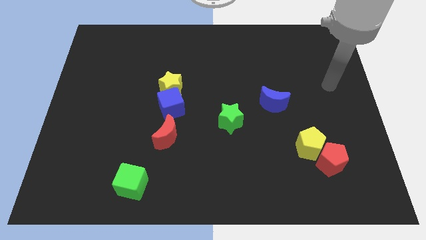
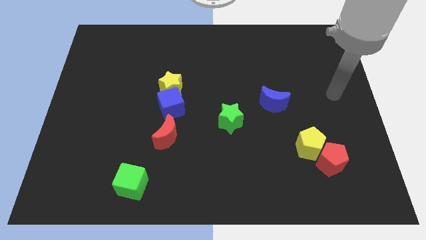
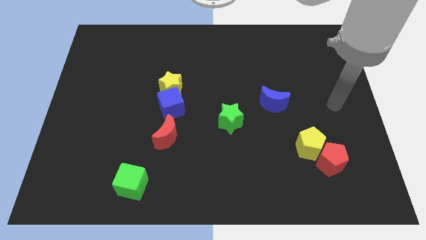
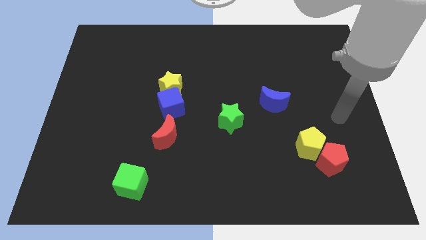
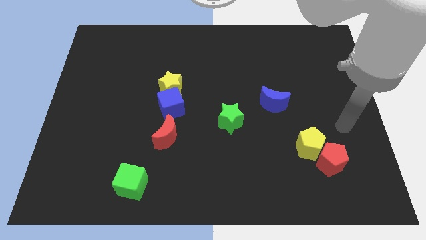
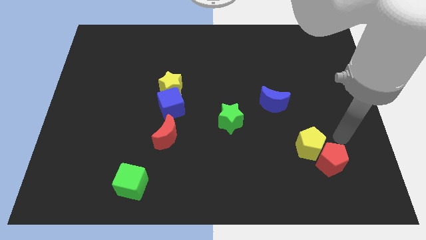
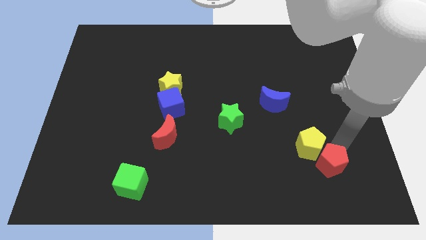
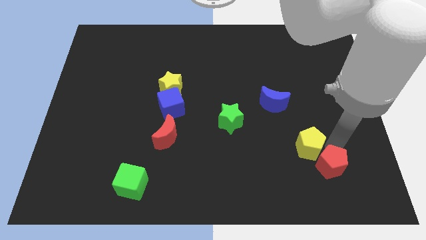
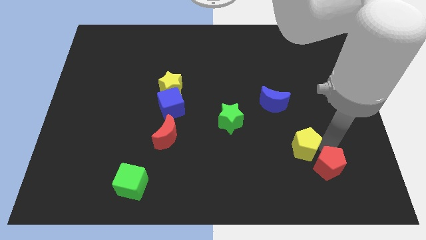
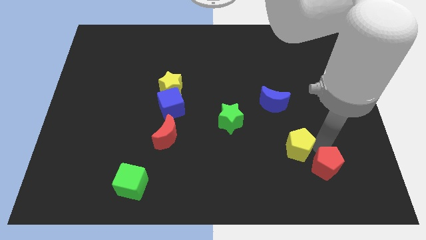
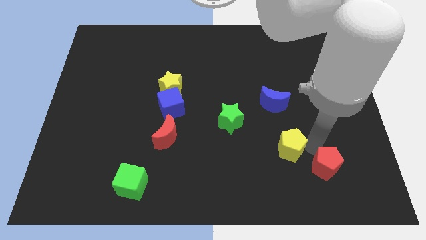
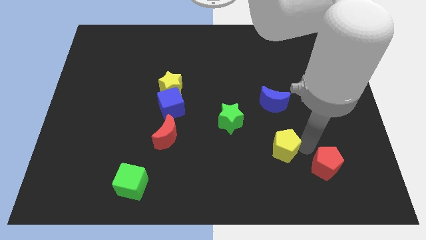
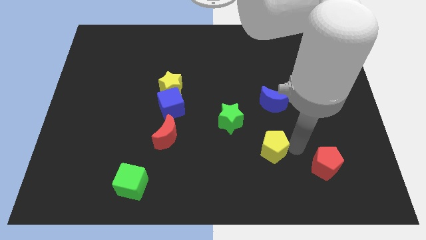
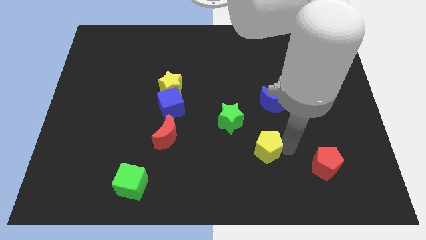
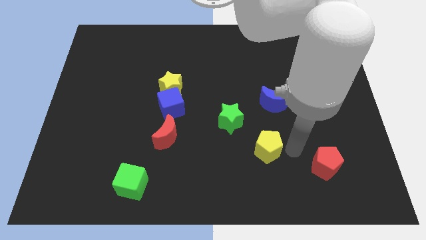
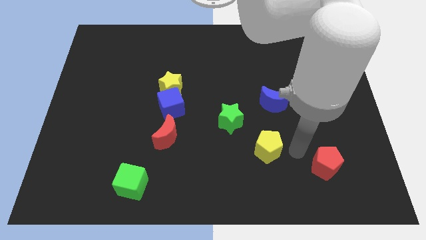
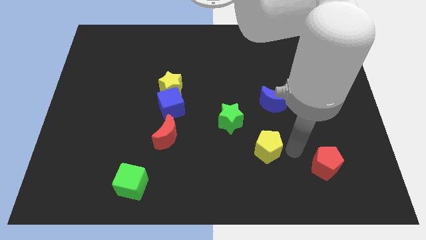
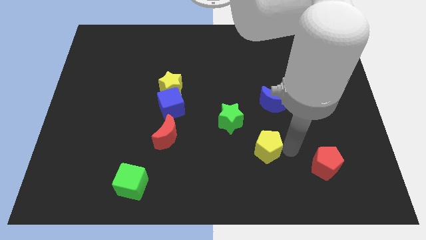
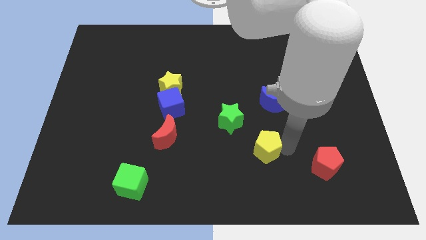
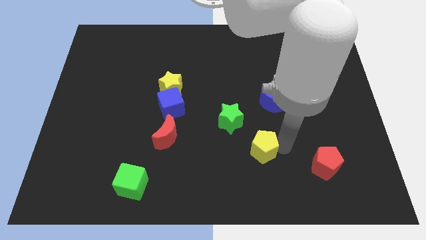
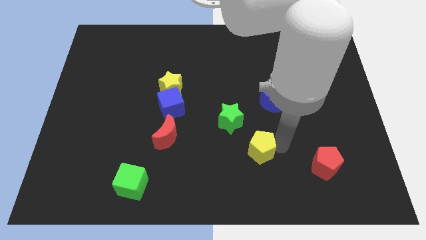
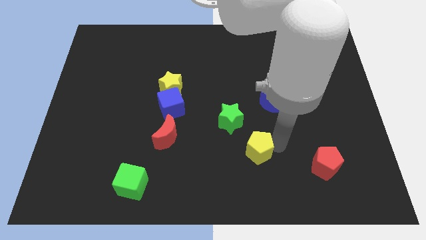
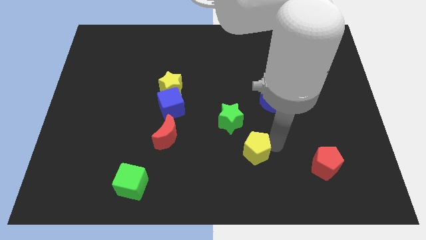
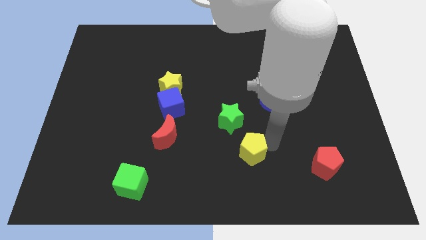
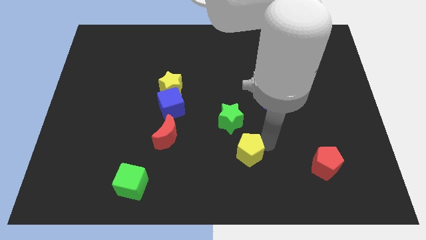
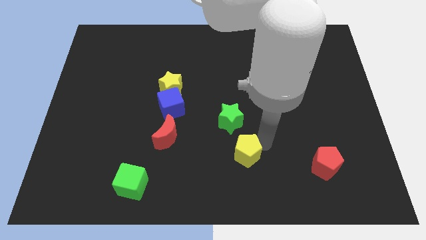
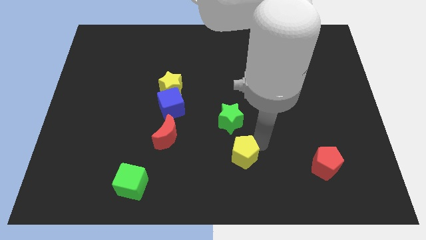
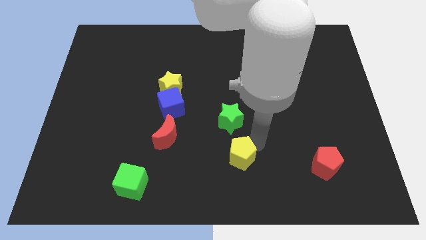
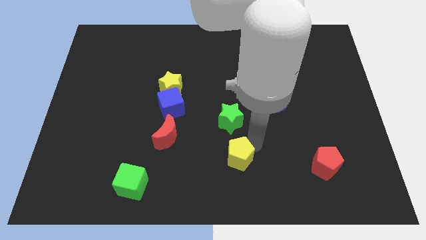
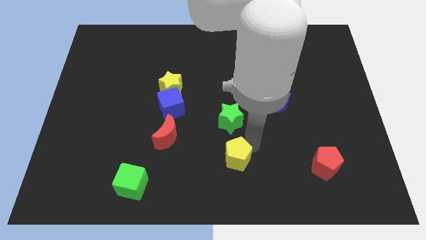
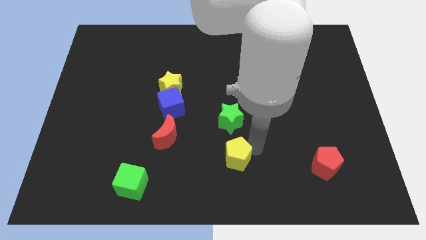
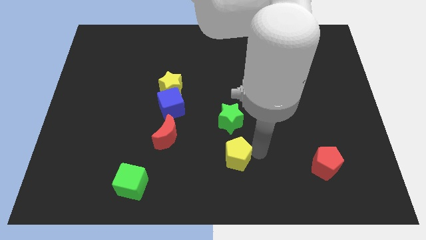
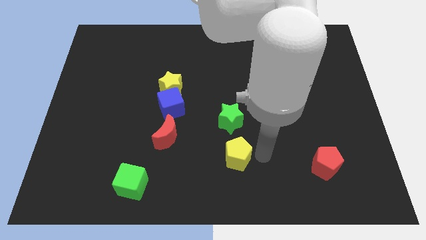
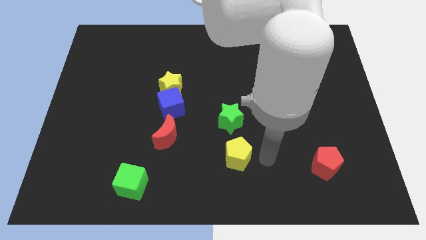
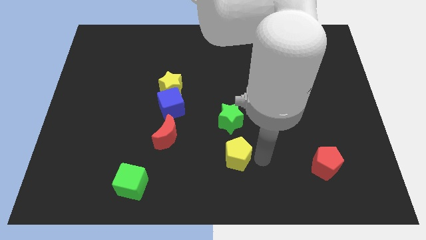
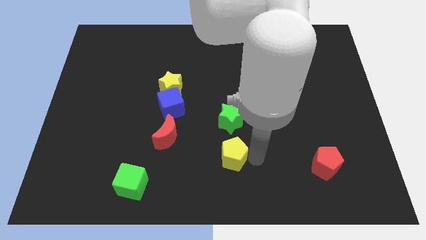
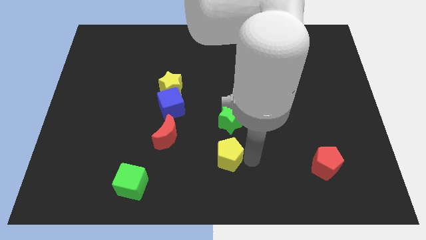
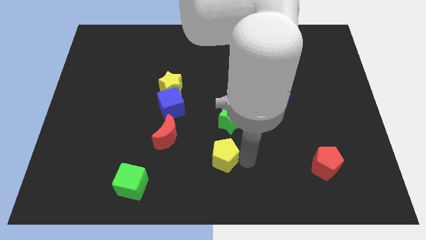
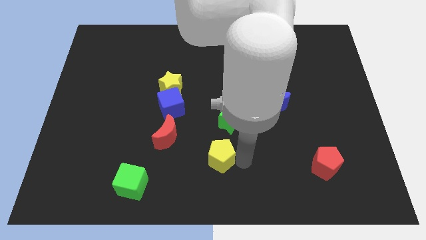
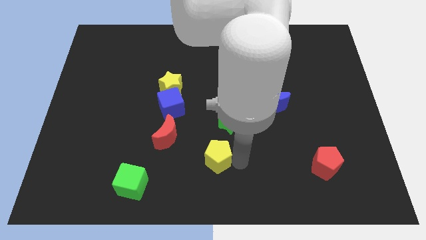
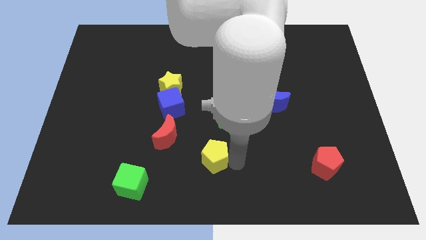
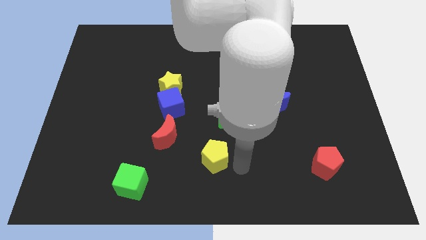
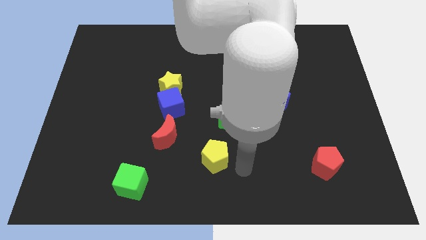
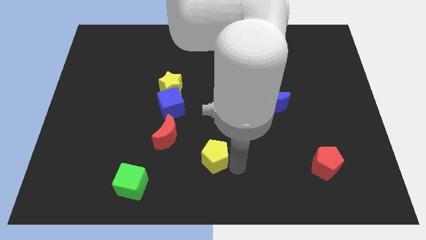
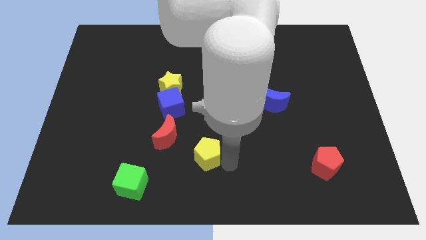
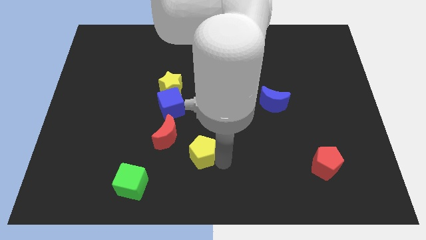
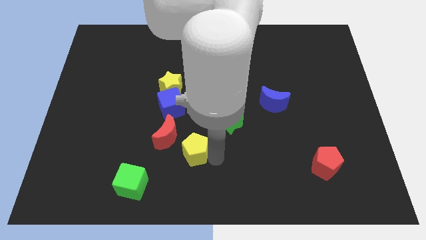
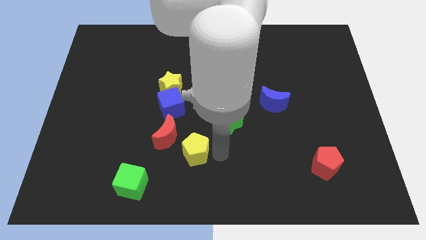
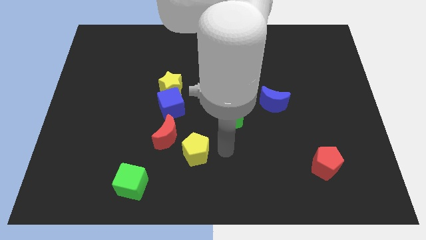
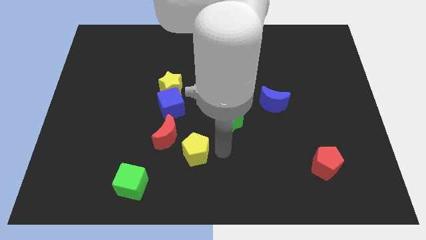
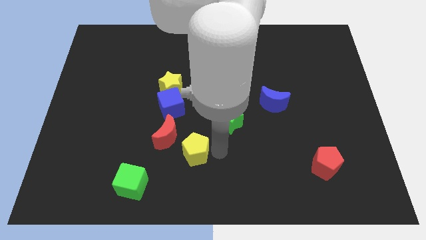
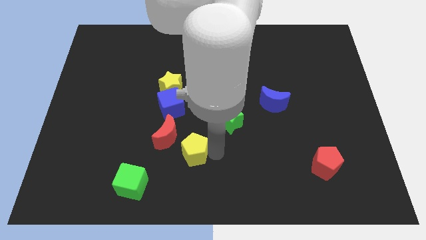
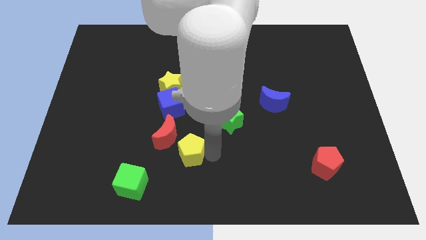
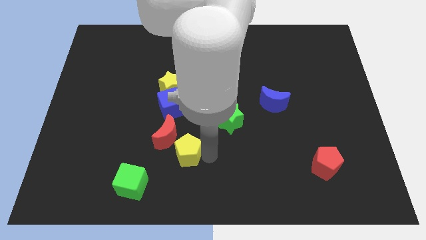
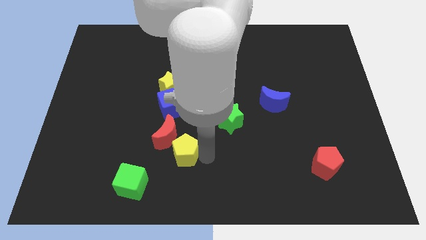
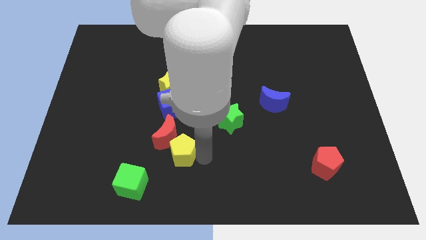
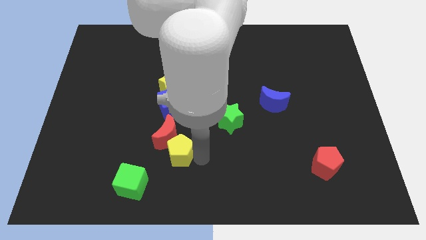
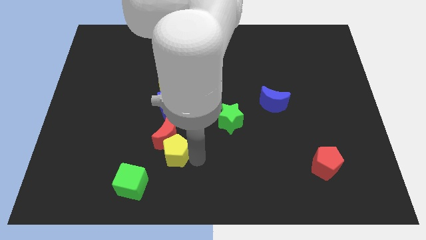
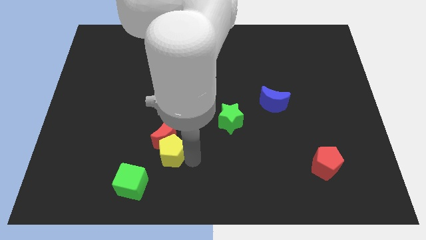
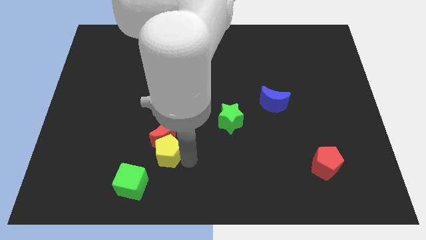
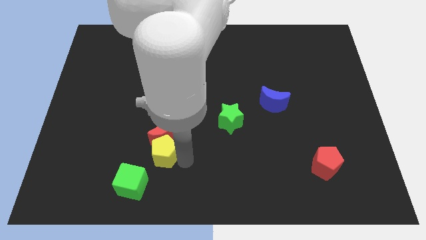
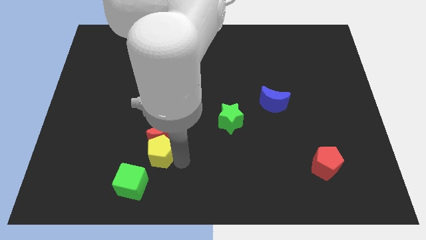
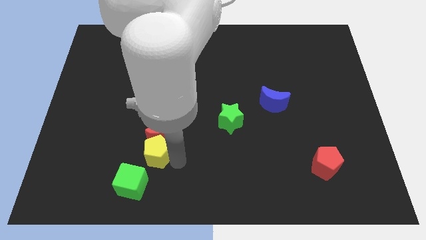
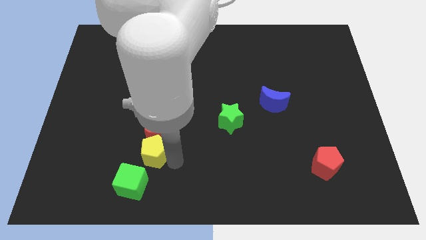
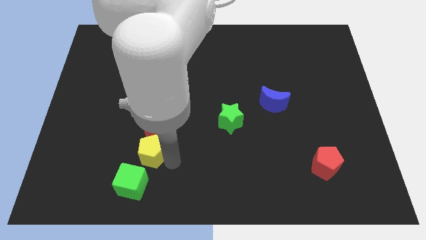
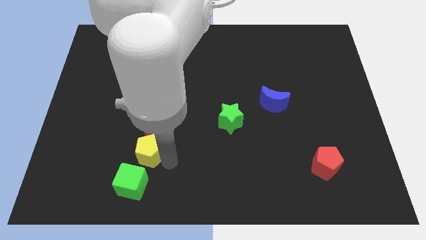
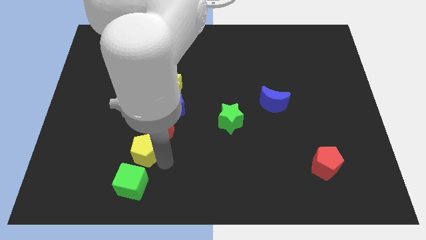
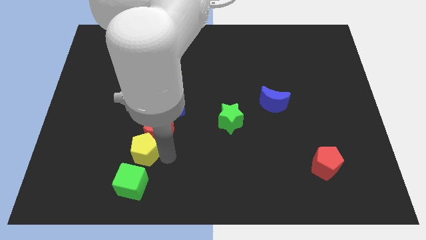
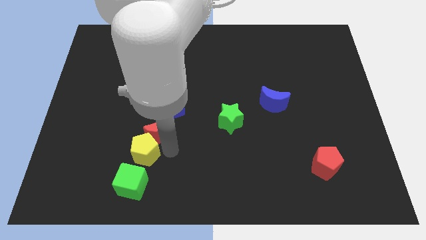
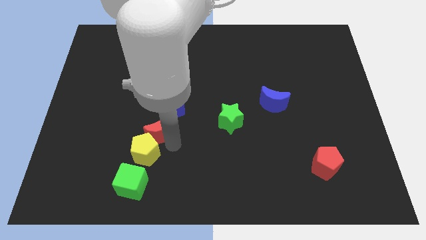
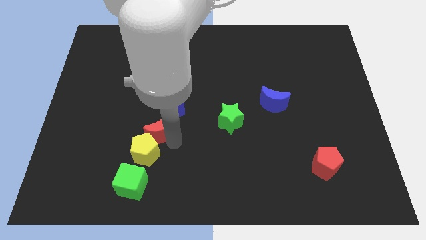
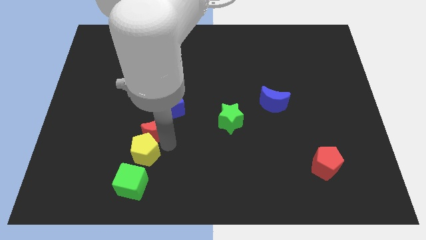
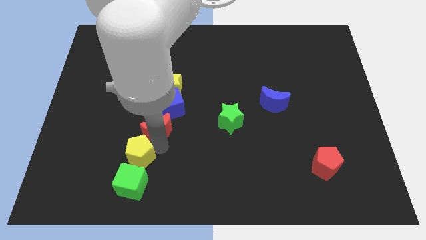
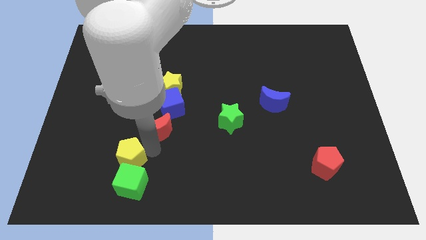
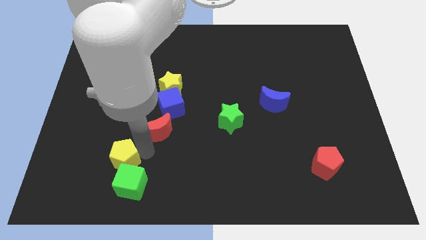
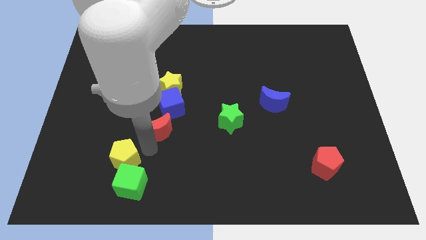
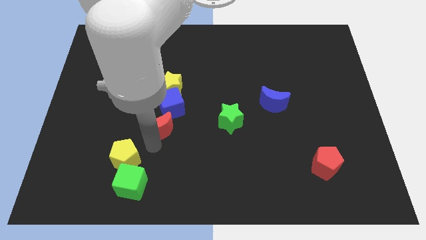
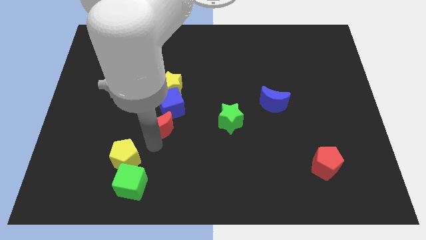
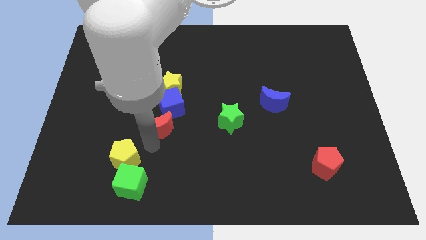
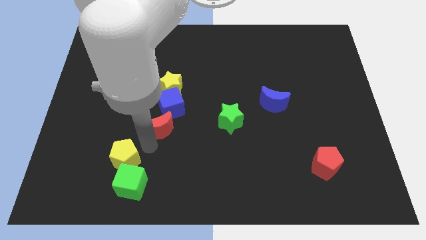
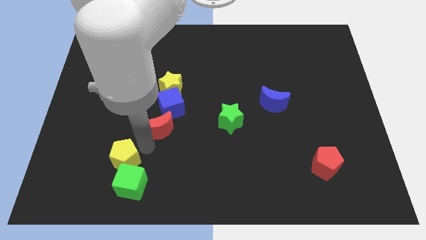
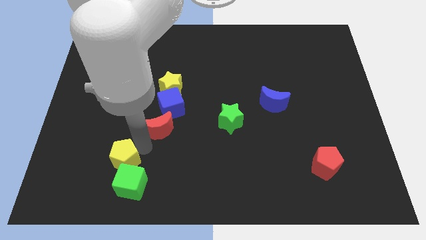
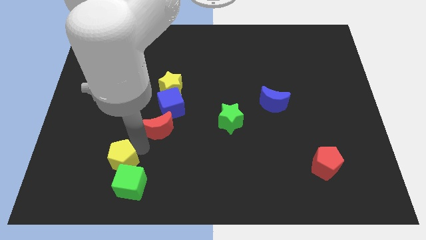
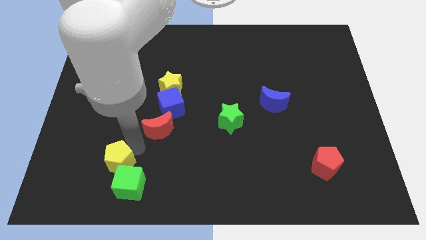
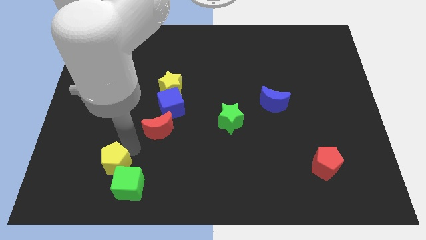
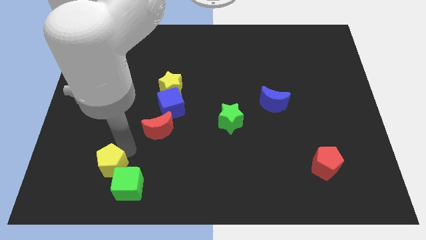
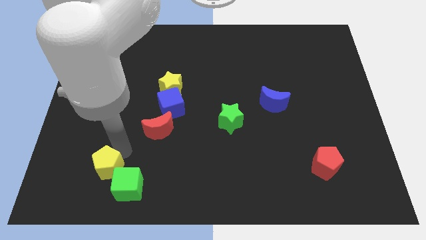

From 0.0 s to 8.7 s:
move the yellow pentagon to the left side of the green cube

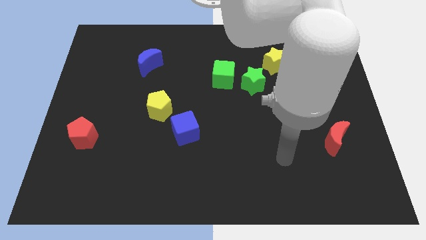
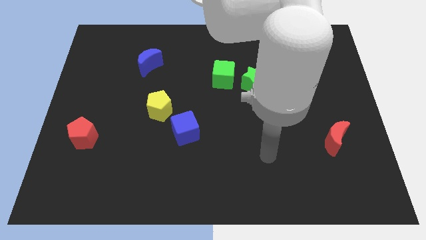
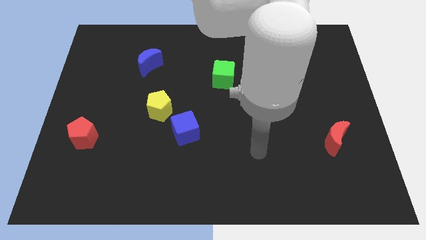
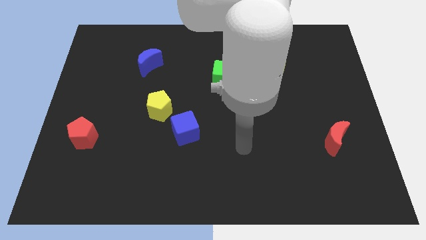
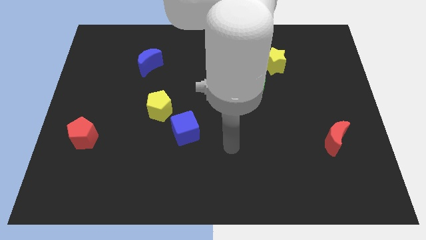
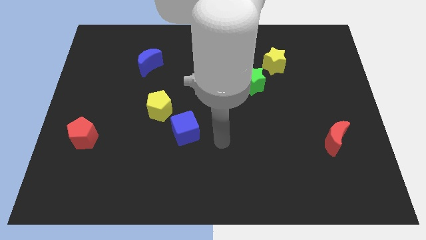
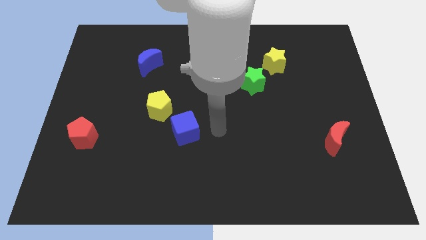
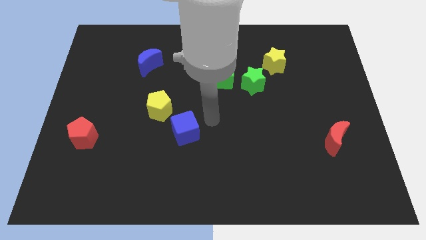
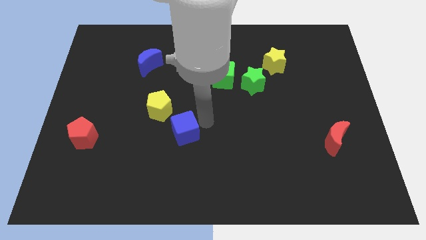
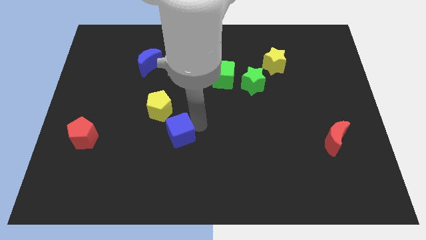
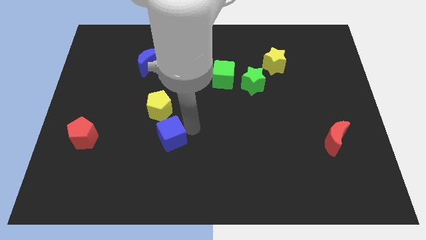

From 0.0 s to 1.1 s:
push the blue cube to the bottom side of the yellow pentagon
